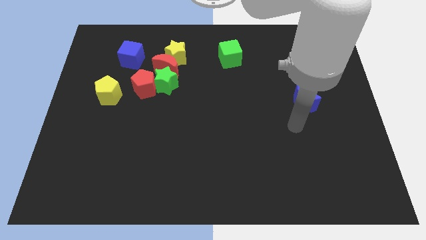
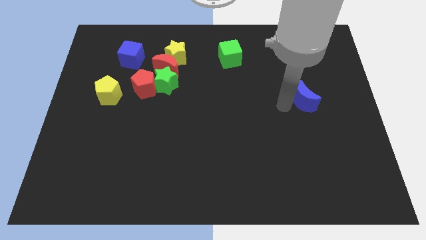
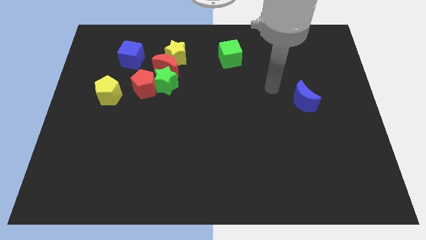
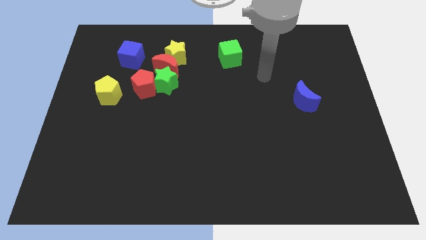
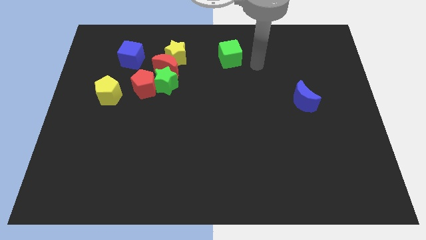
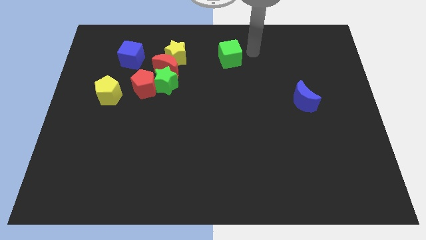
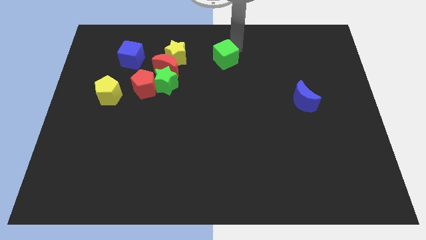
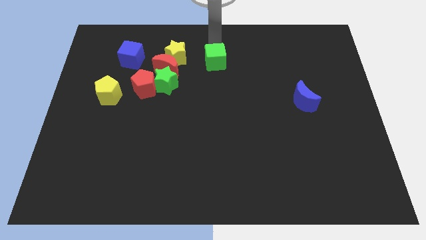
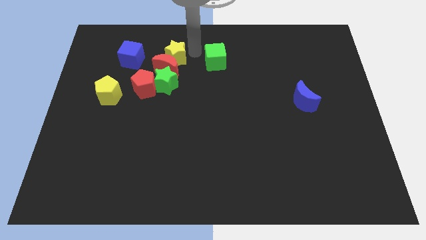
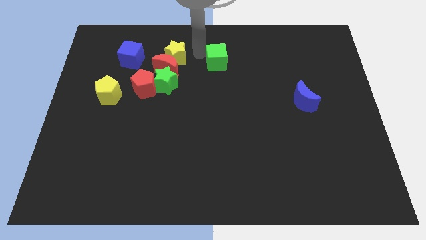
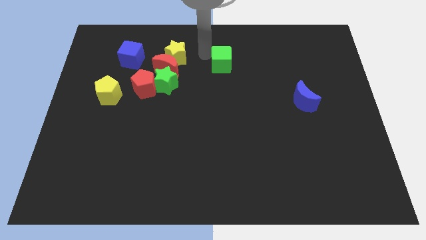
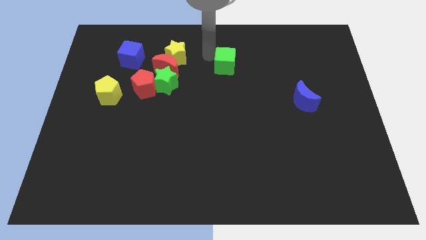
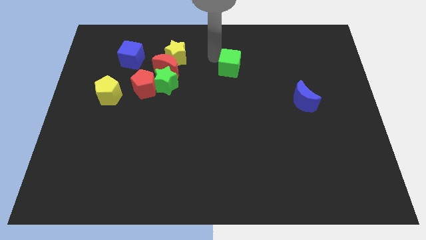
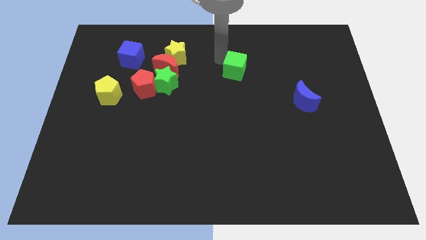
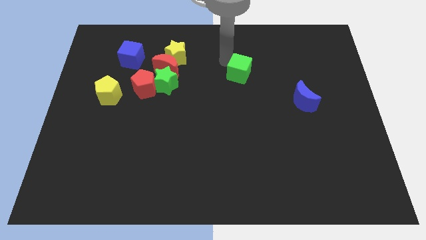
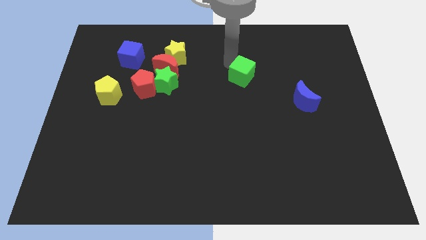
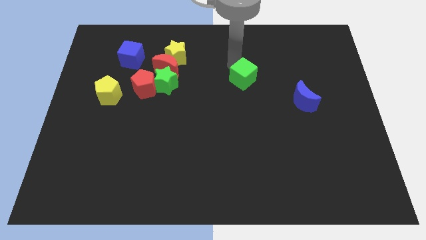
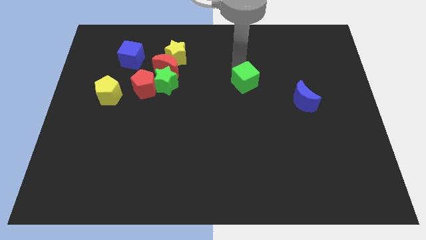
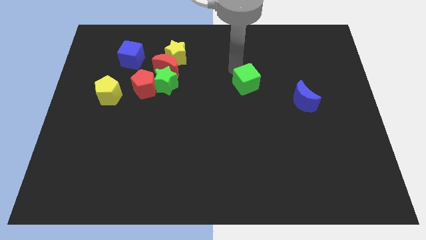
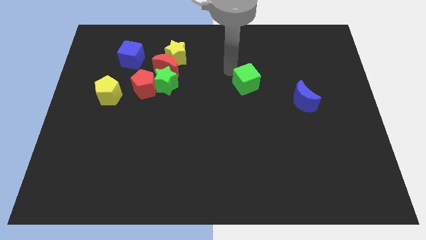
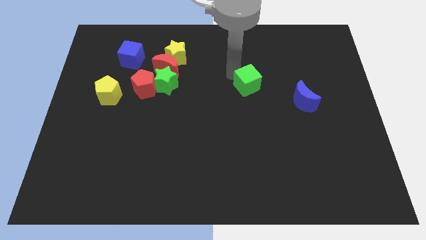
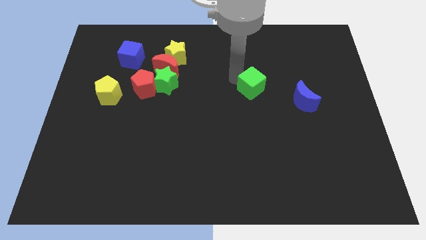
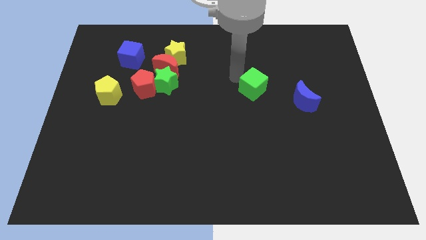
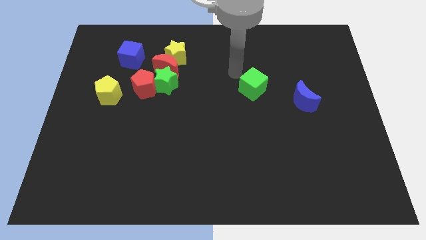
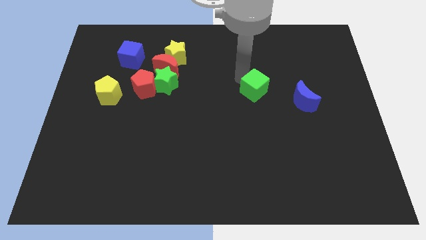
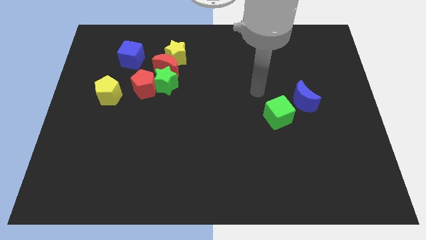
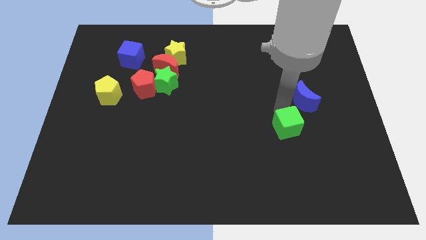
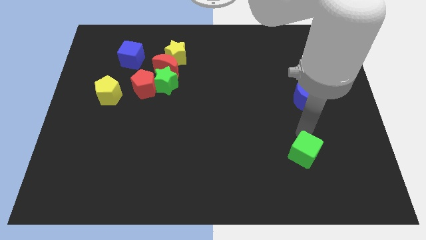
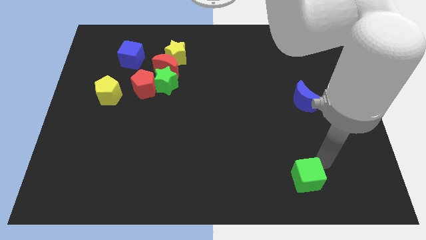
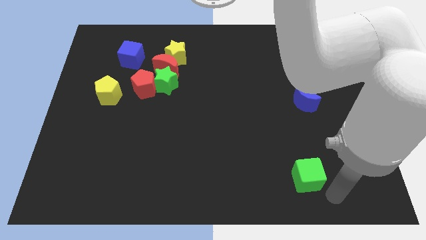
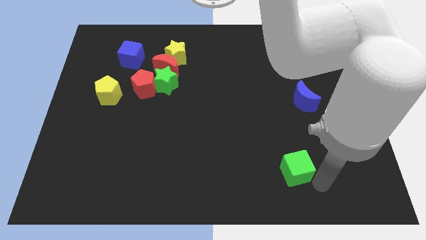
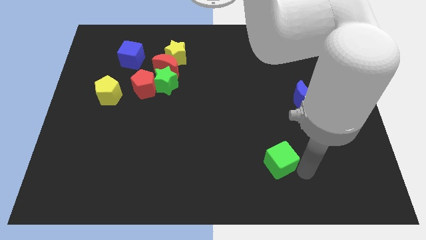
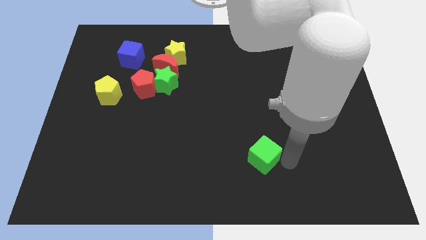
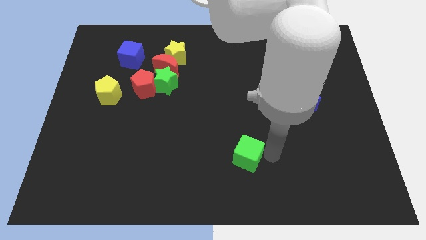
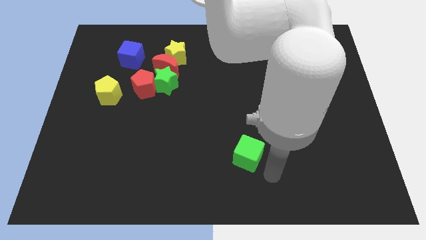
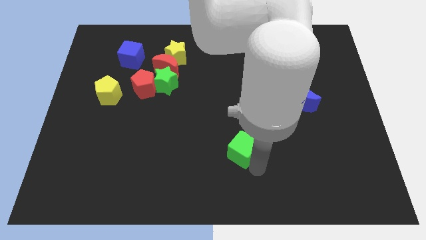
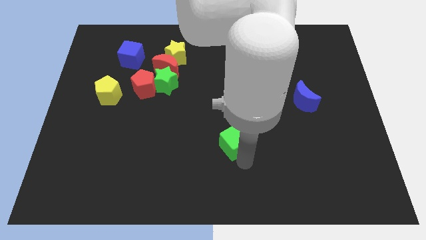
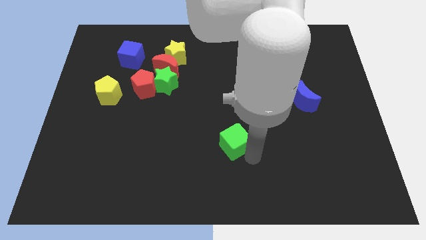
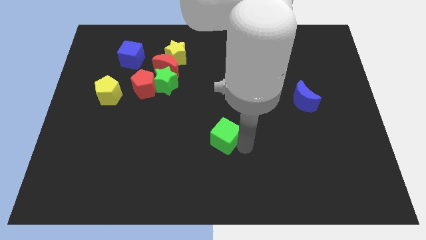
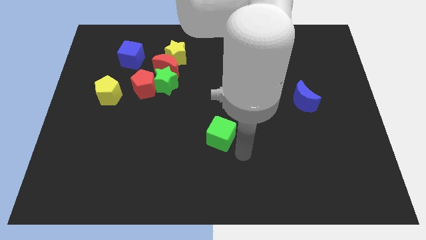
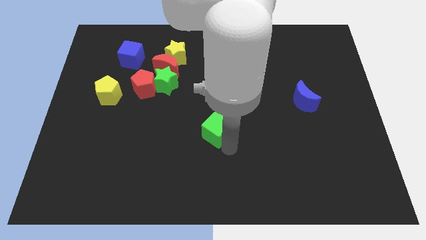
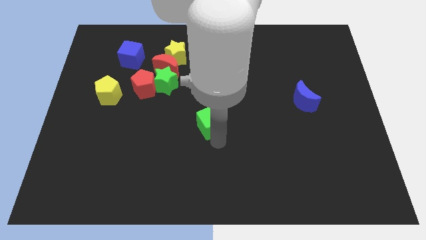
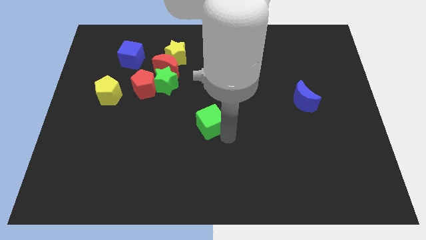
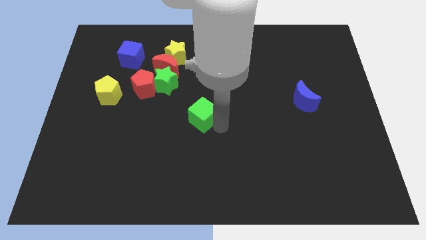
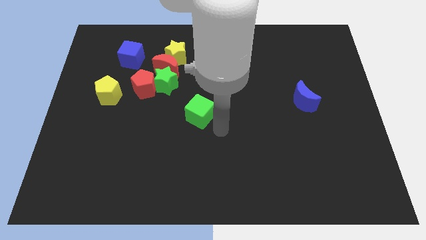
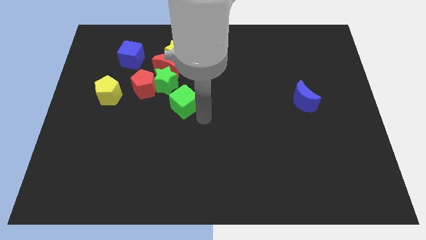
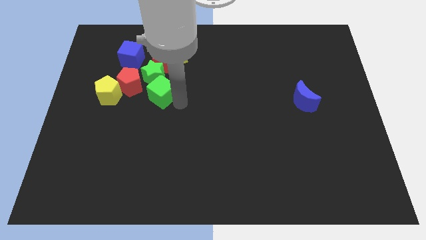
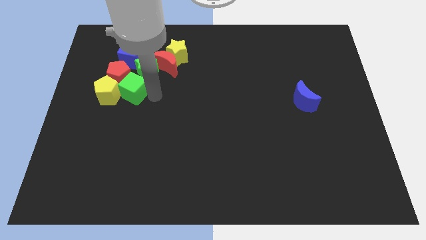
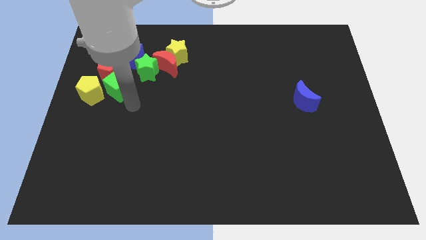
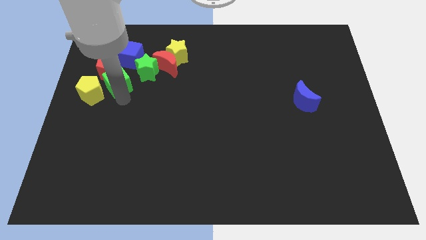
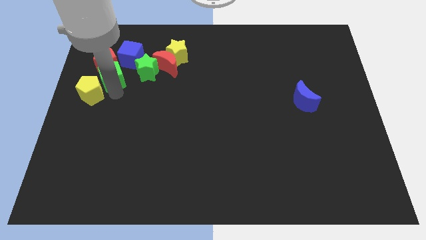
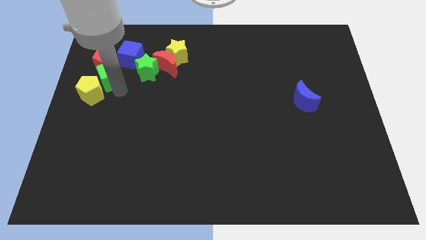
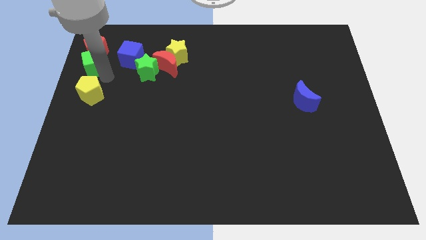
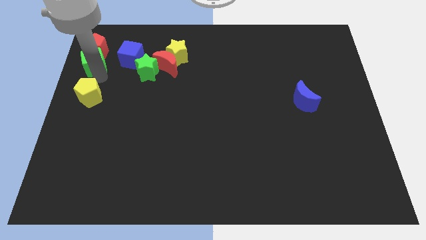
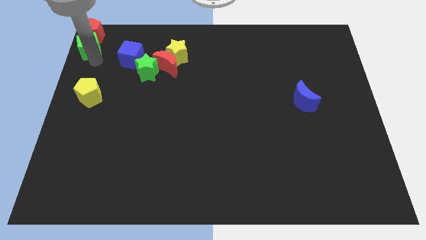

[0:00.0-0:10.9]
push the green cube to the top left of the board
